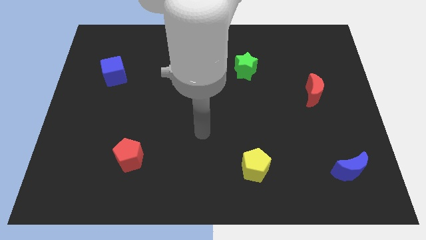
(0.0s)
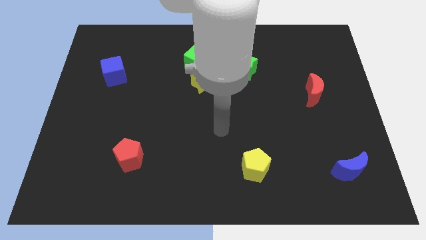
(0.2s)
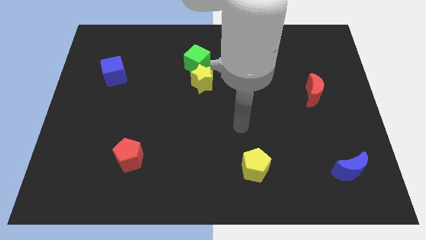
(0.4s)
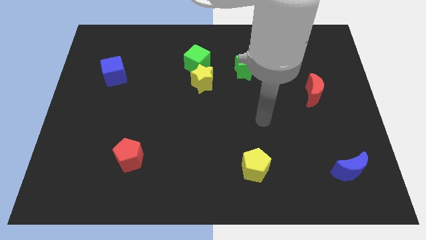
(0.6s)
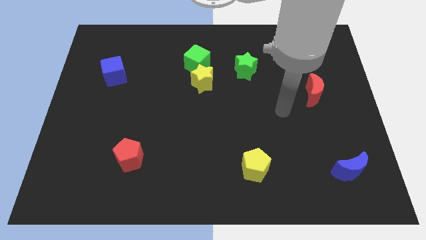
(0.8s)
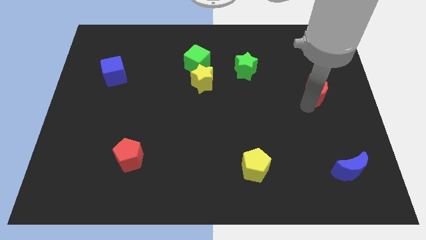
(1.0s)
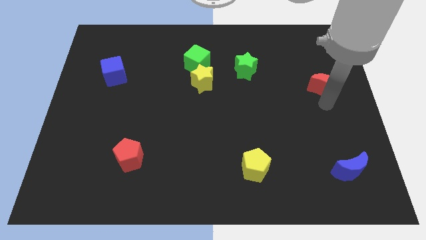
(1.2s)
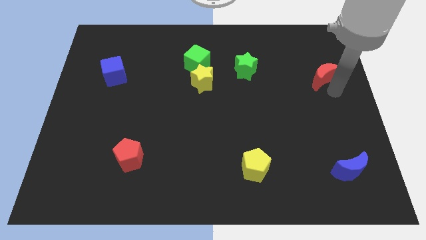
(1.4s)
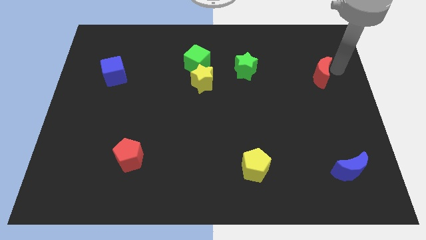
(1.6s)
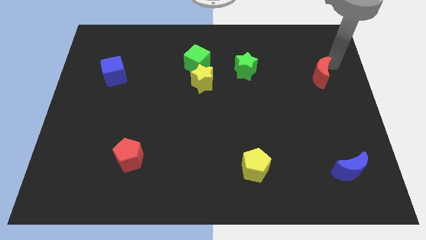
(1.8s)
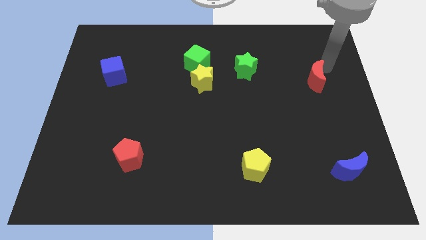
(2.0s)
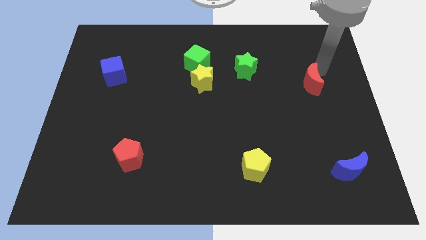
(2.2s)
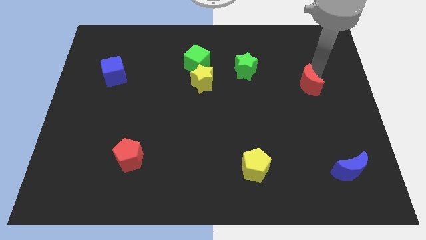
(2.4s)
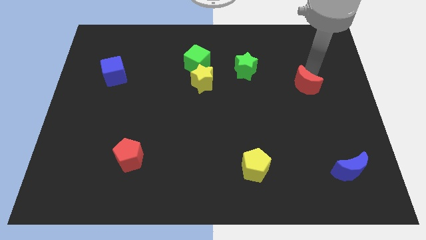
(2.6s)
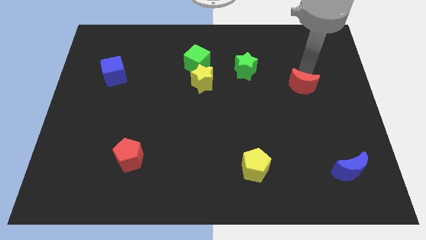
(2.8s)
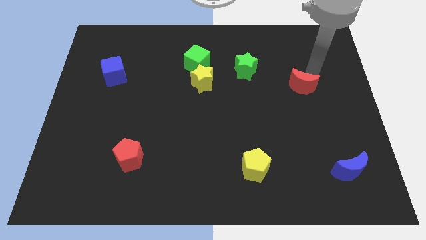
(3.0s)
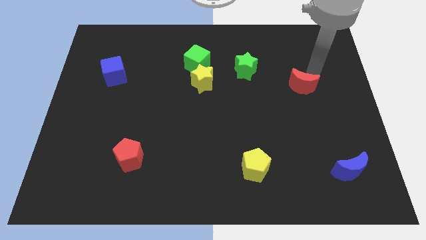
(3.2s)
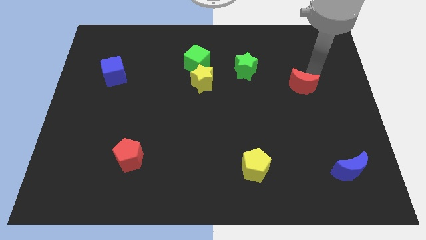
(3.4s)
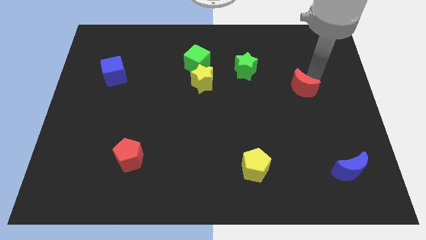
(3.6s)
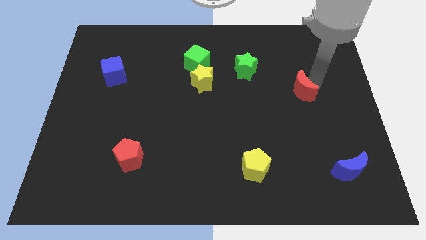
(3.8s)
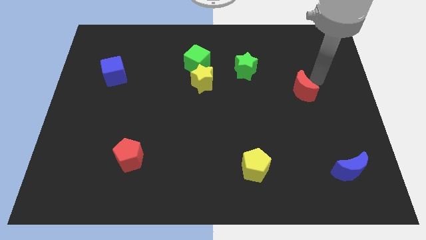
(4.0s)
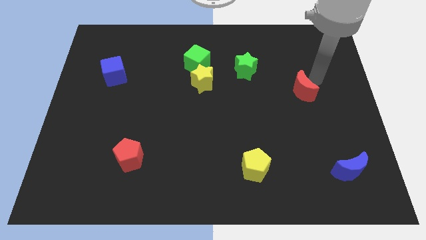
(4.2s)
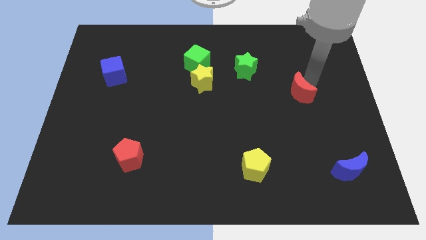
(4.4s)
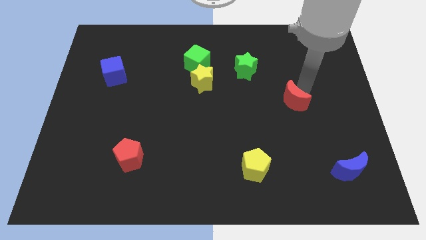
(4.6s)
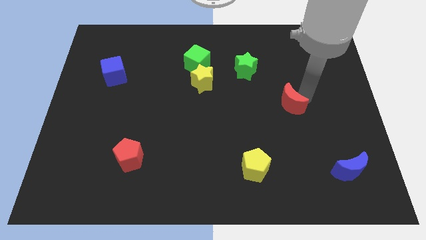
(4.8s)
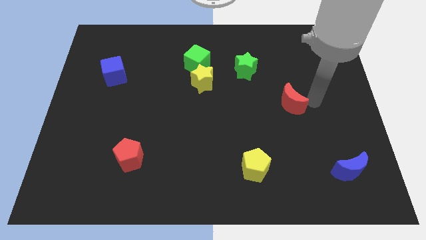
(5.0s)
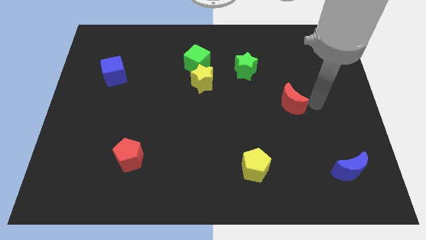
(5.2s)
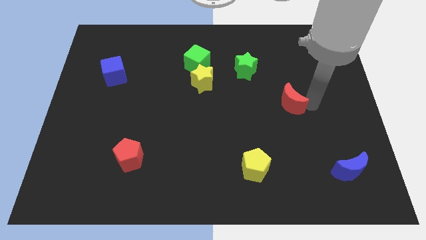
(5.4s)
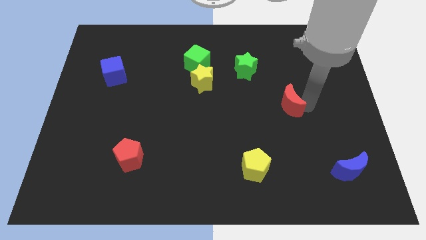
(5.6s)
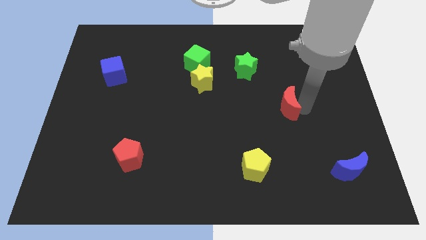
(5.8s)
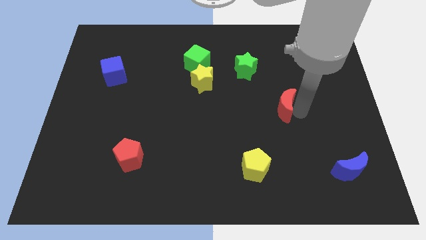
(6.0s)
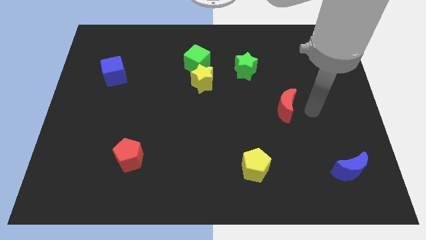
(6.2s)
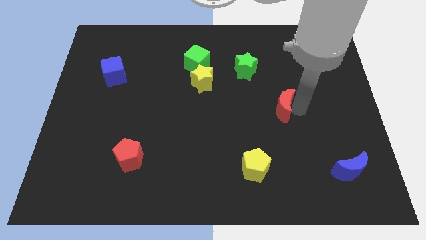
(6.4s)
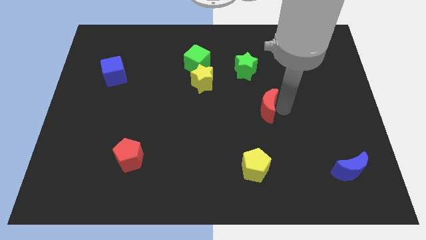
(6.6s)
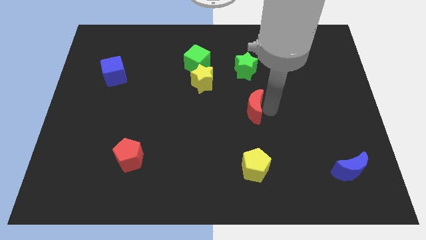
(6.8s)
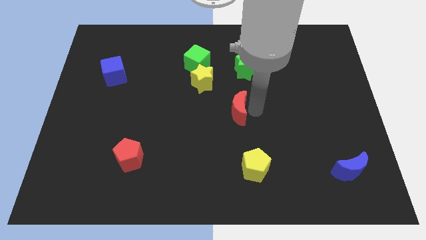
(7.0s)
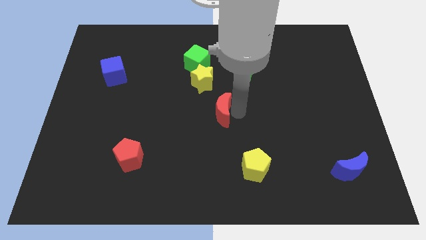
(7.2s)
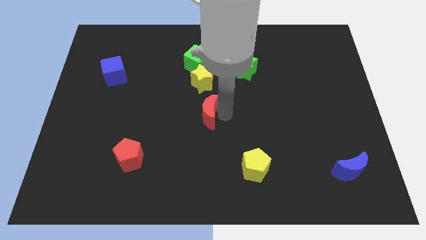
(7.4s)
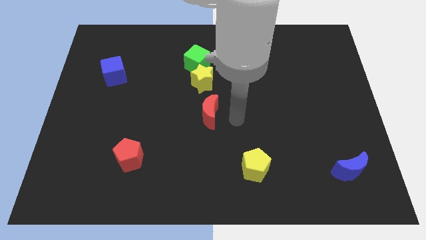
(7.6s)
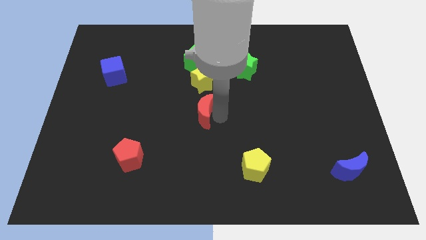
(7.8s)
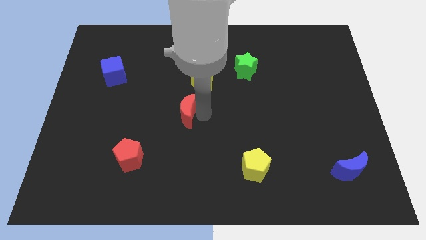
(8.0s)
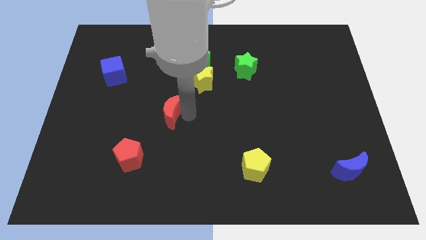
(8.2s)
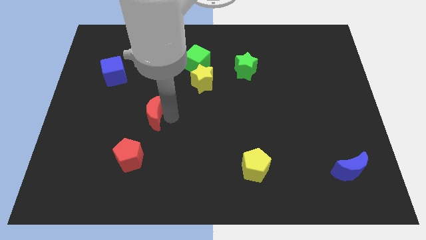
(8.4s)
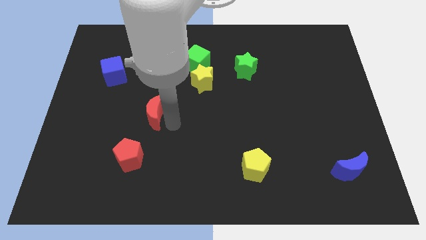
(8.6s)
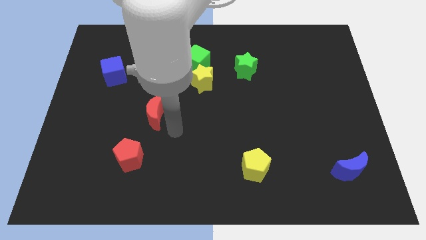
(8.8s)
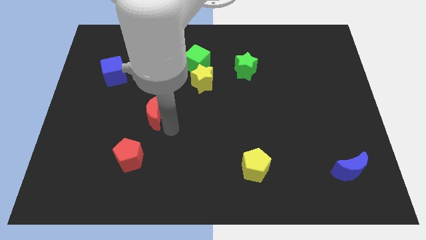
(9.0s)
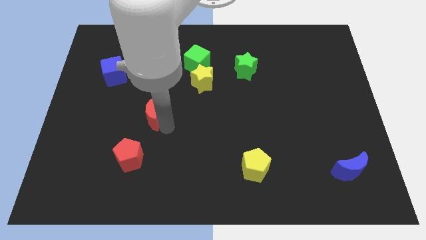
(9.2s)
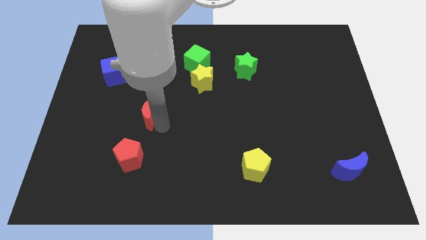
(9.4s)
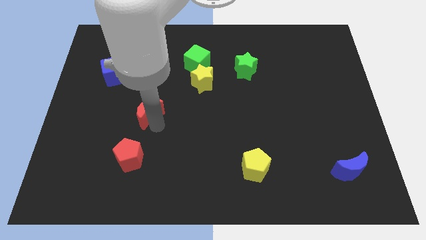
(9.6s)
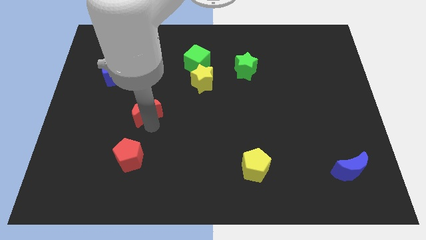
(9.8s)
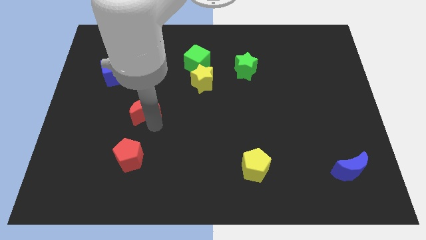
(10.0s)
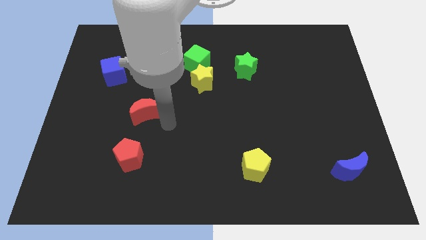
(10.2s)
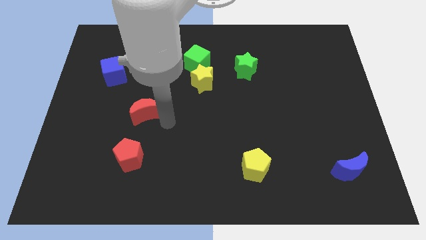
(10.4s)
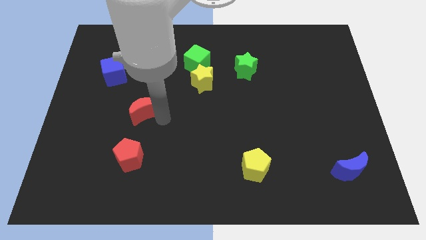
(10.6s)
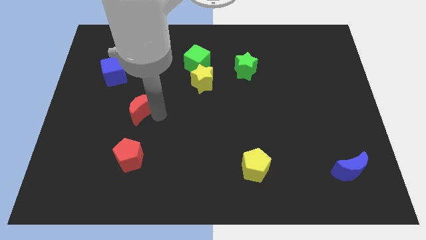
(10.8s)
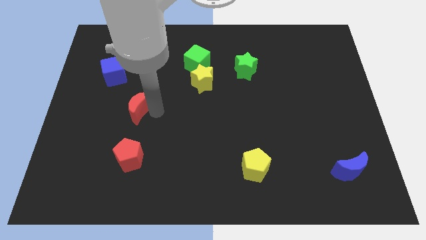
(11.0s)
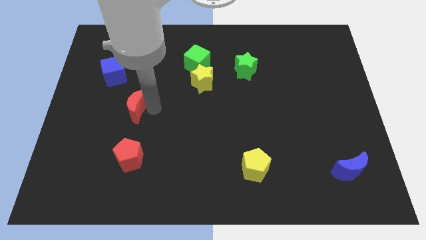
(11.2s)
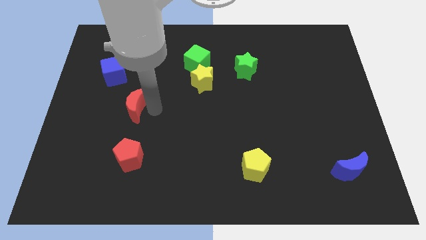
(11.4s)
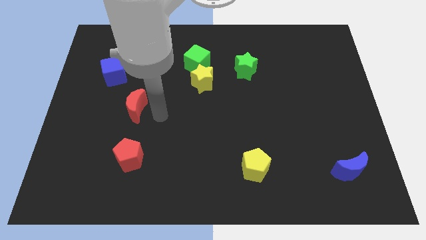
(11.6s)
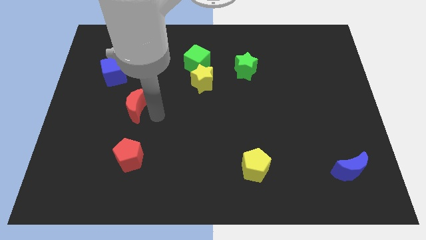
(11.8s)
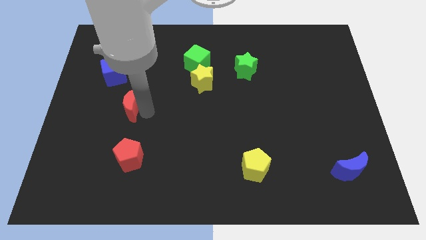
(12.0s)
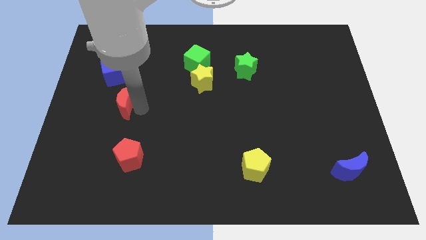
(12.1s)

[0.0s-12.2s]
slide the red moon to the bottom of the blue cube

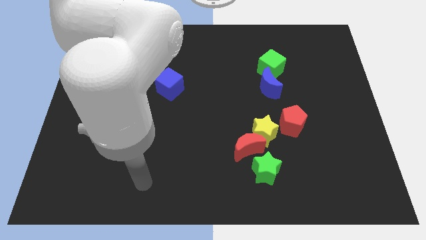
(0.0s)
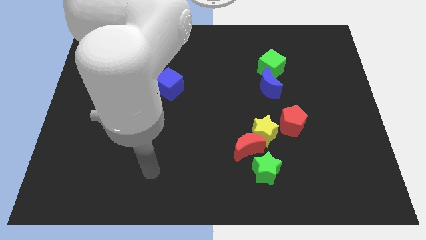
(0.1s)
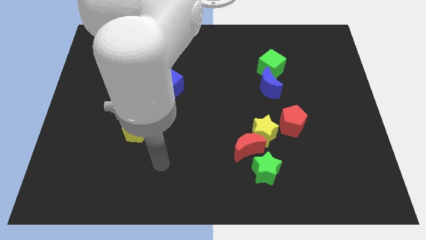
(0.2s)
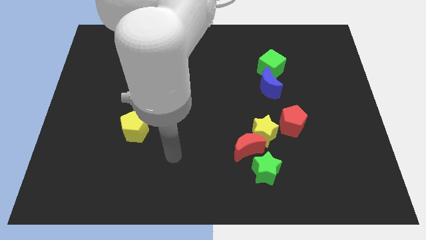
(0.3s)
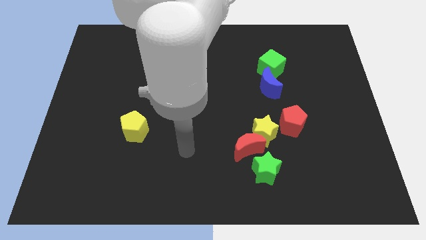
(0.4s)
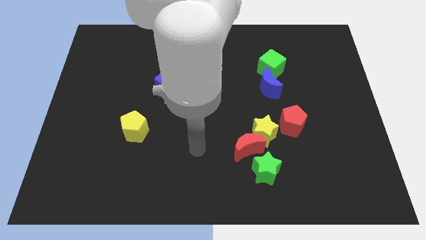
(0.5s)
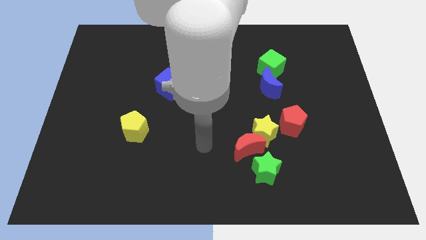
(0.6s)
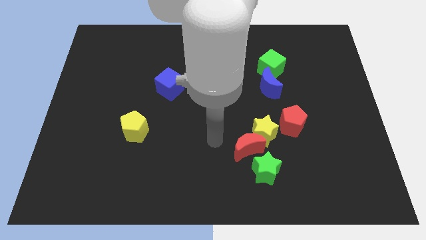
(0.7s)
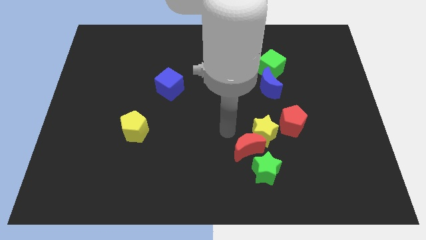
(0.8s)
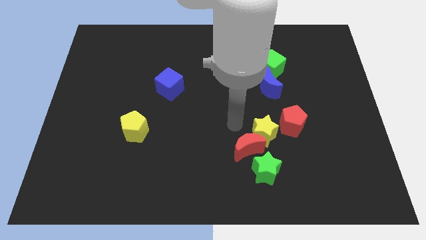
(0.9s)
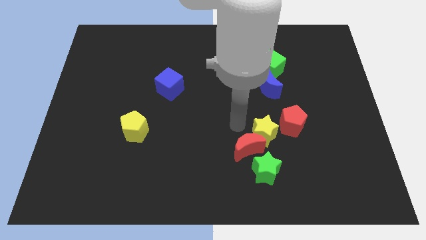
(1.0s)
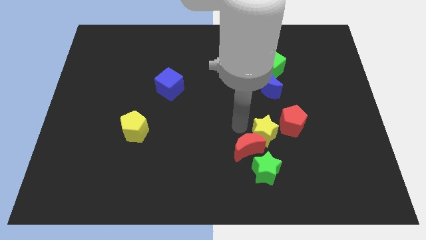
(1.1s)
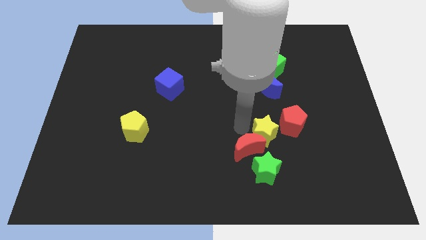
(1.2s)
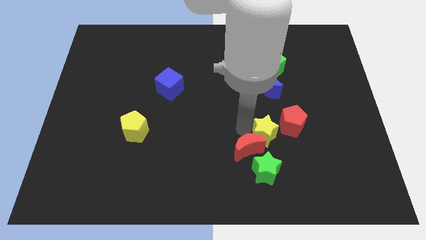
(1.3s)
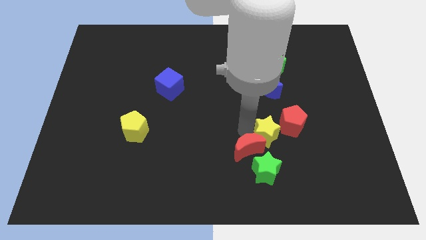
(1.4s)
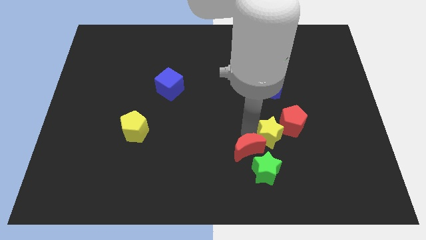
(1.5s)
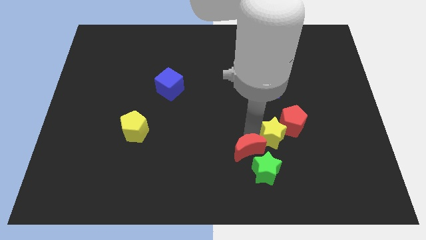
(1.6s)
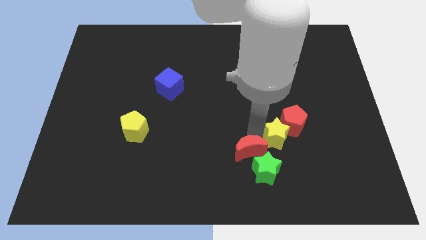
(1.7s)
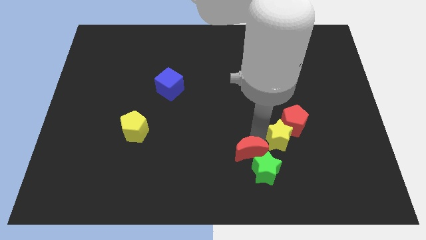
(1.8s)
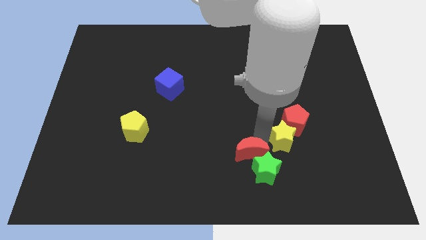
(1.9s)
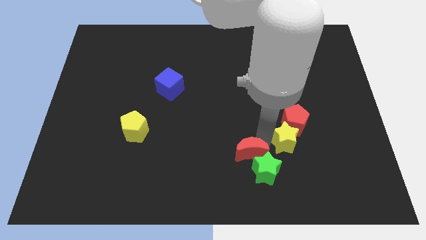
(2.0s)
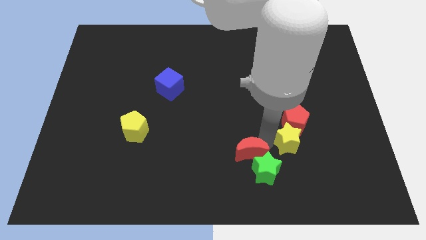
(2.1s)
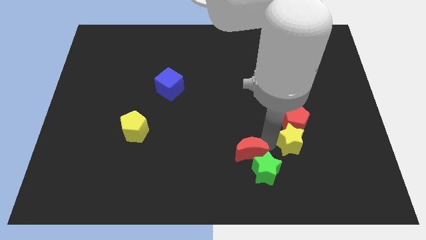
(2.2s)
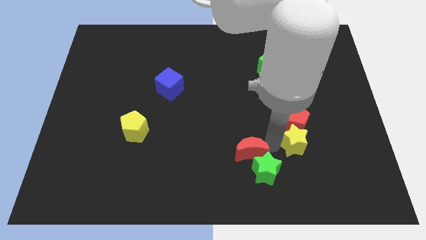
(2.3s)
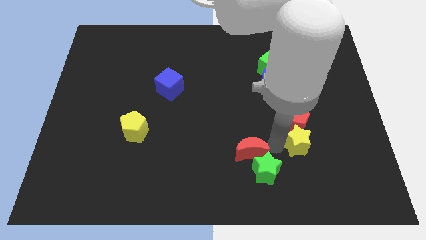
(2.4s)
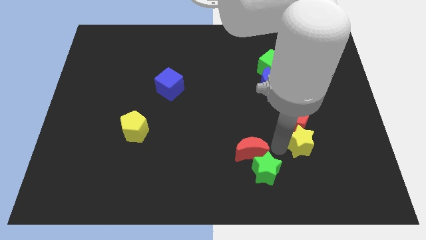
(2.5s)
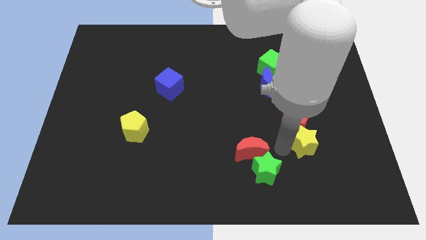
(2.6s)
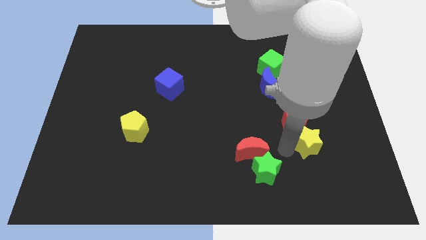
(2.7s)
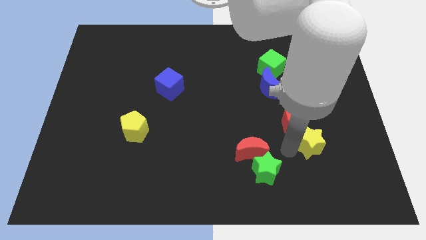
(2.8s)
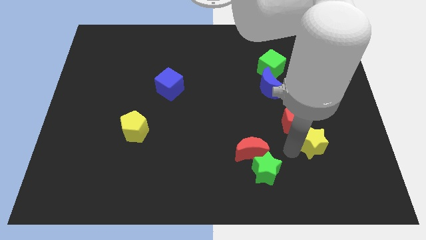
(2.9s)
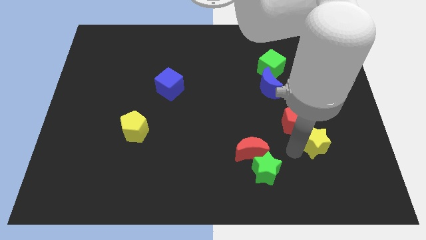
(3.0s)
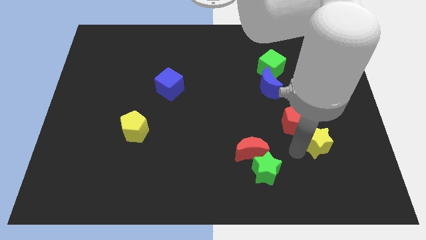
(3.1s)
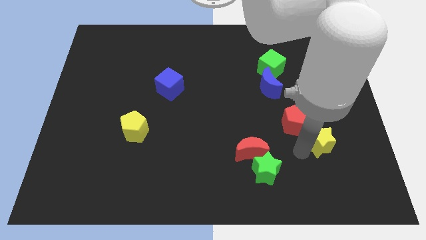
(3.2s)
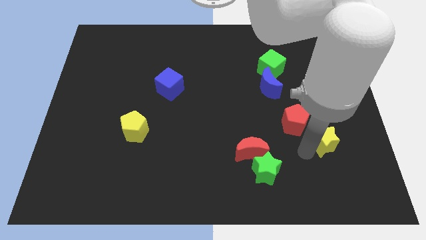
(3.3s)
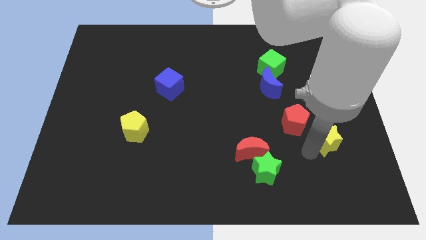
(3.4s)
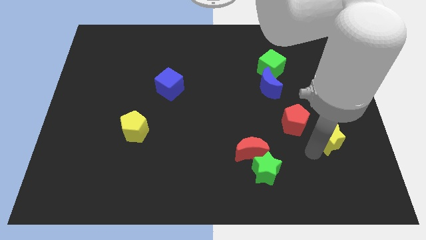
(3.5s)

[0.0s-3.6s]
put the yellow star to the right side of the red pentagon
